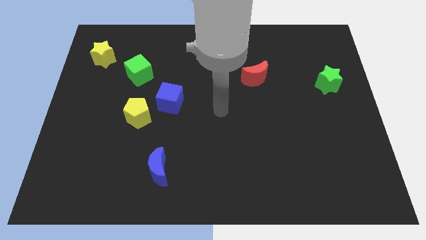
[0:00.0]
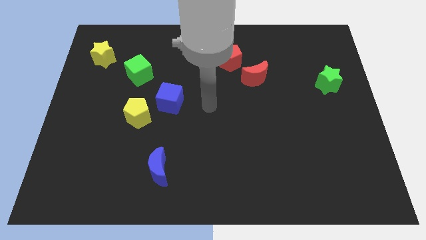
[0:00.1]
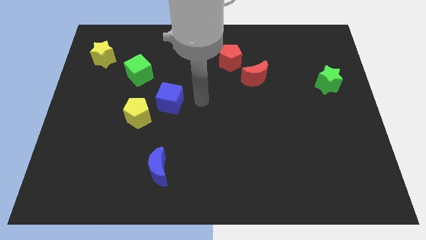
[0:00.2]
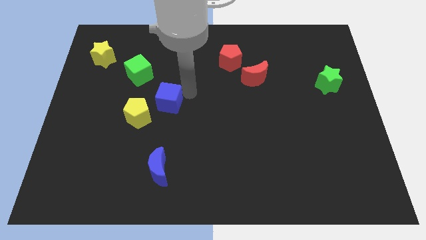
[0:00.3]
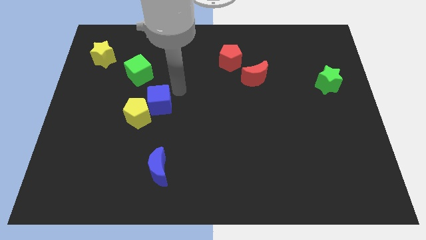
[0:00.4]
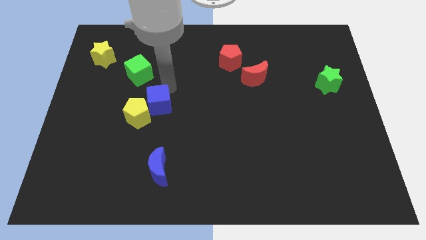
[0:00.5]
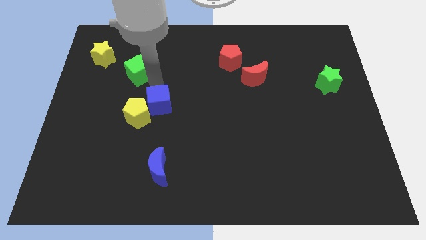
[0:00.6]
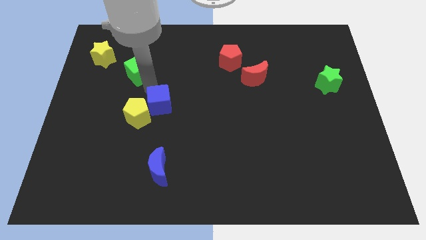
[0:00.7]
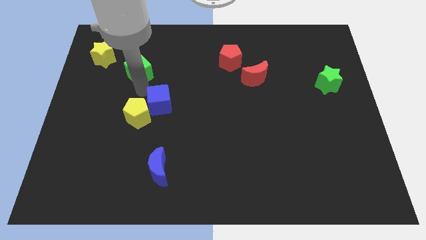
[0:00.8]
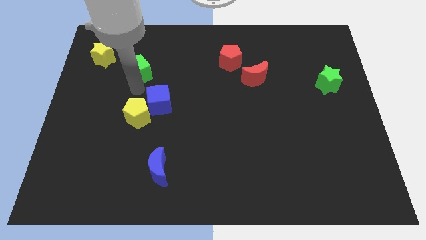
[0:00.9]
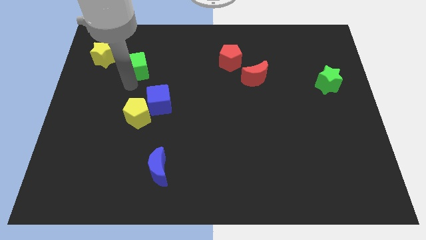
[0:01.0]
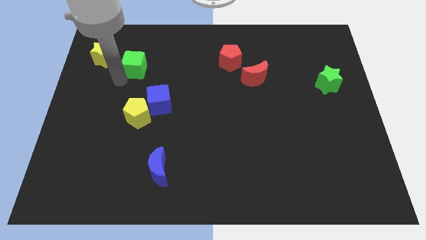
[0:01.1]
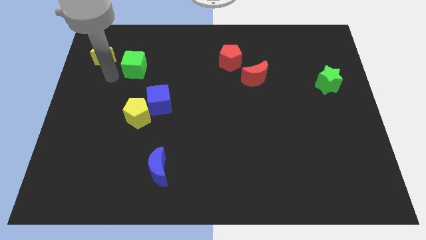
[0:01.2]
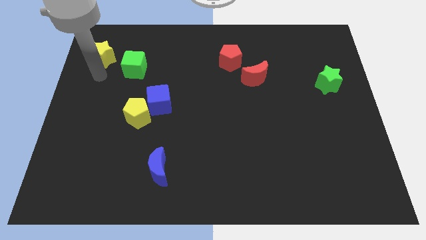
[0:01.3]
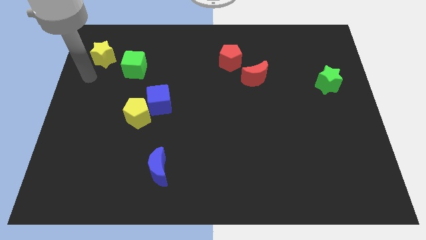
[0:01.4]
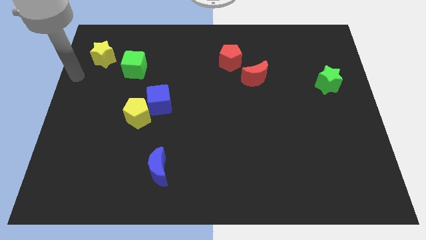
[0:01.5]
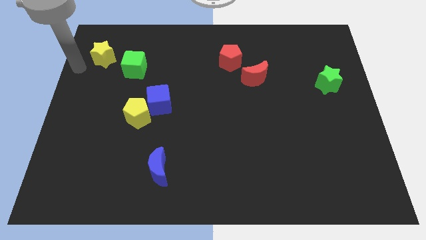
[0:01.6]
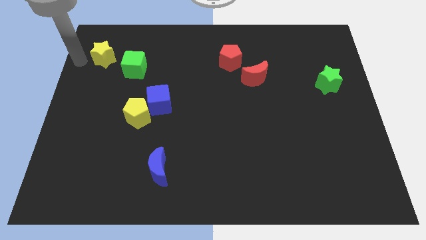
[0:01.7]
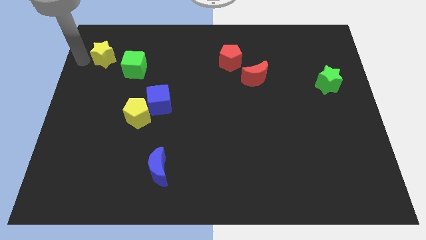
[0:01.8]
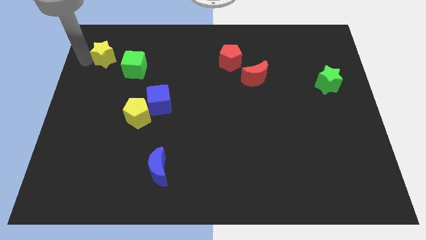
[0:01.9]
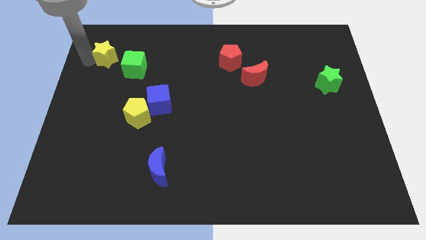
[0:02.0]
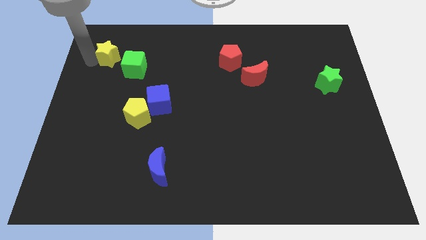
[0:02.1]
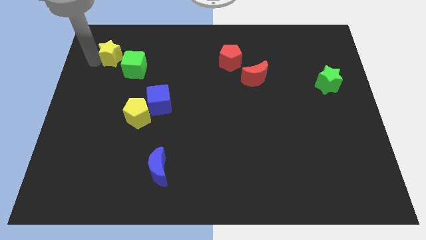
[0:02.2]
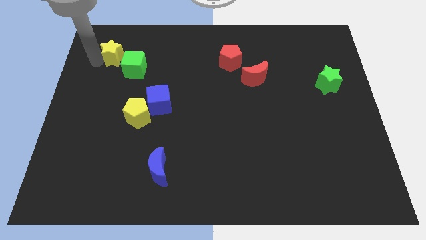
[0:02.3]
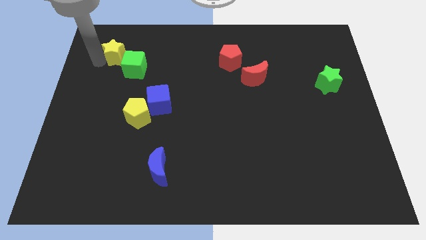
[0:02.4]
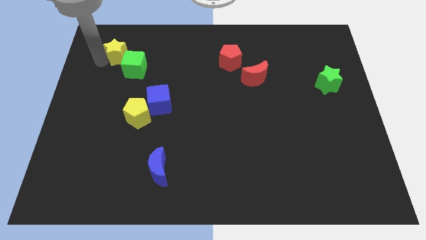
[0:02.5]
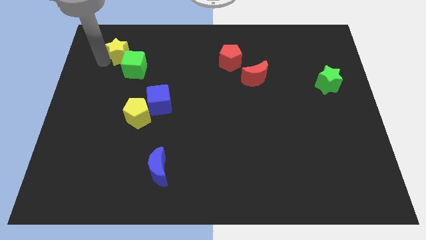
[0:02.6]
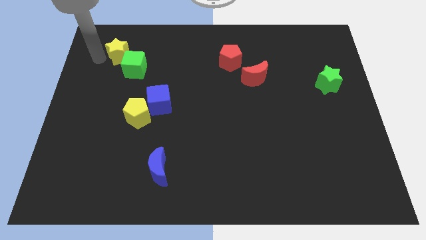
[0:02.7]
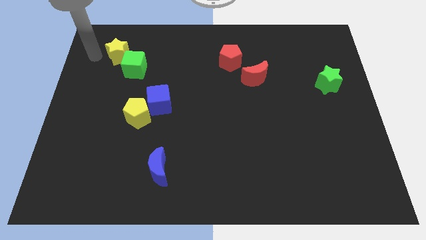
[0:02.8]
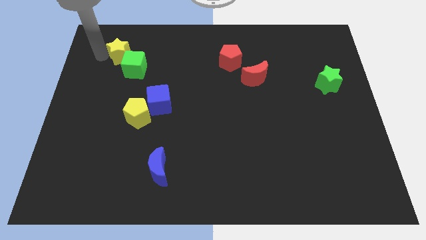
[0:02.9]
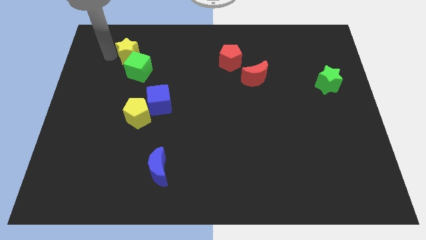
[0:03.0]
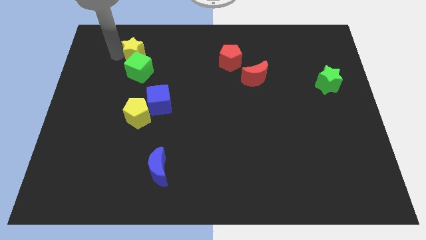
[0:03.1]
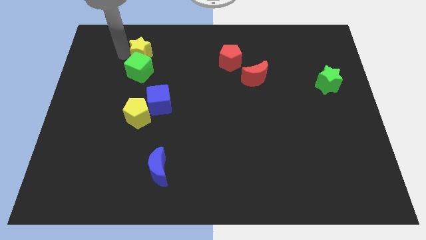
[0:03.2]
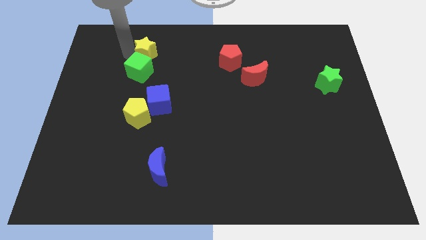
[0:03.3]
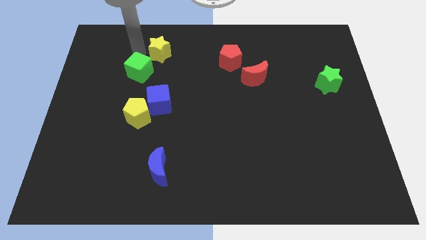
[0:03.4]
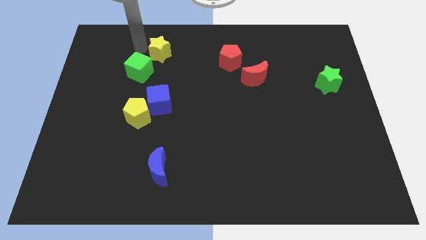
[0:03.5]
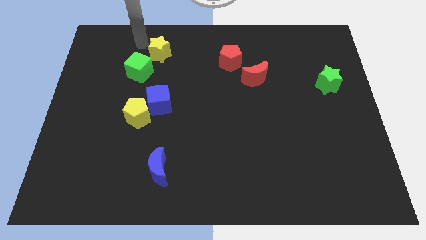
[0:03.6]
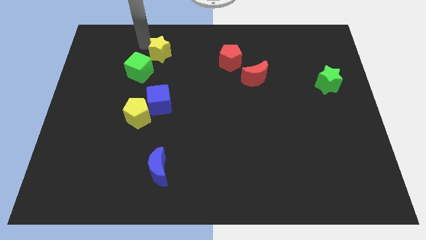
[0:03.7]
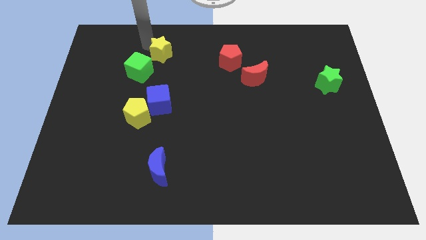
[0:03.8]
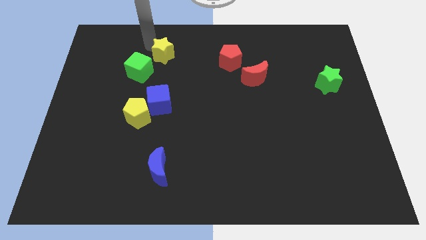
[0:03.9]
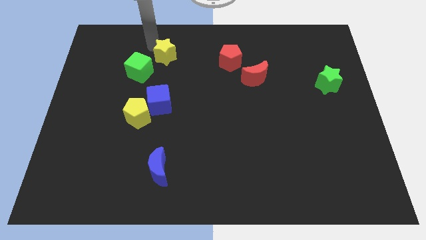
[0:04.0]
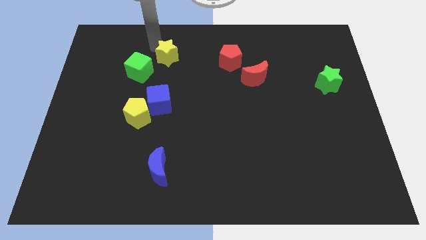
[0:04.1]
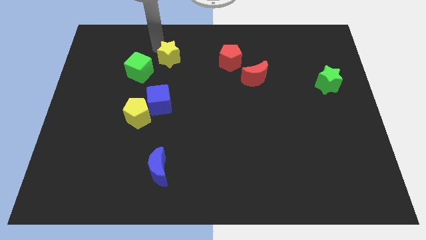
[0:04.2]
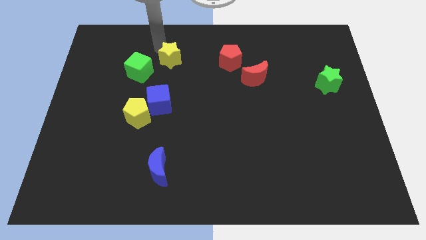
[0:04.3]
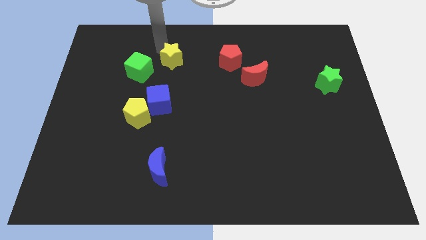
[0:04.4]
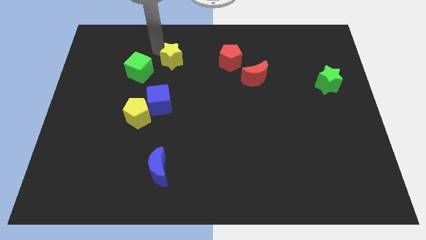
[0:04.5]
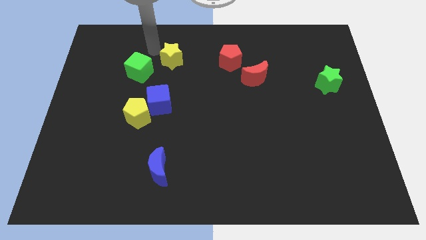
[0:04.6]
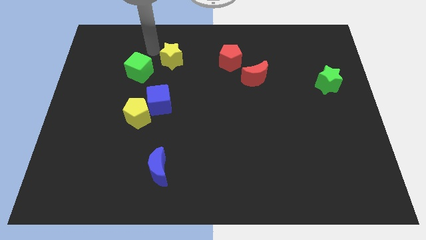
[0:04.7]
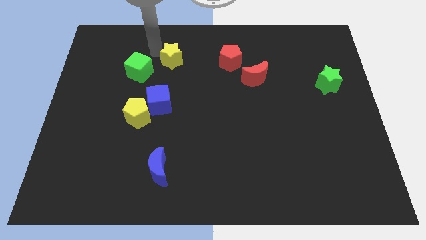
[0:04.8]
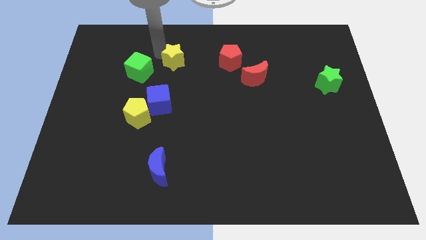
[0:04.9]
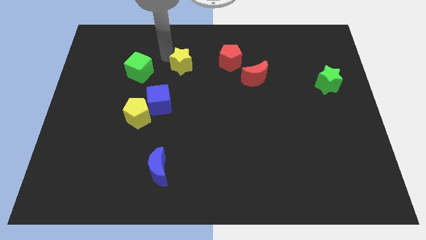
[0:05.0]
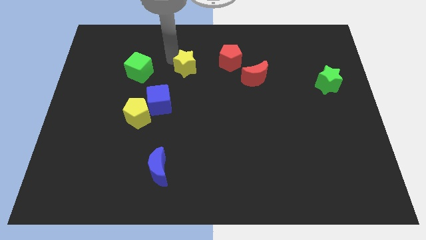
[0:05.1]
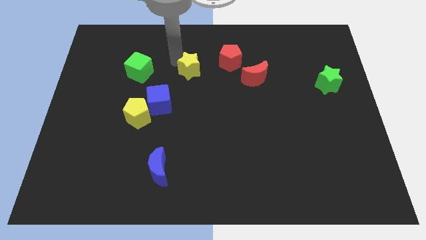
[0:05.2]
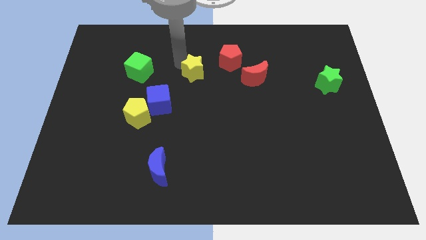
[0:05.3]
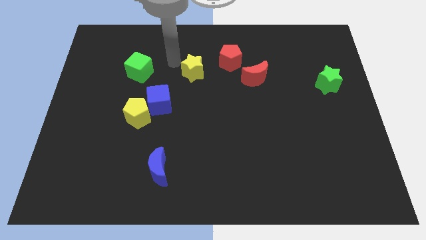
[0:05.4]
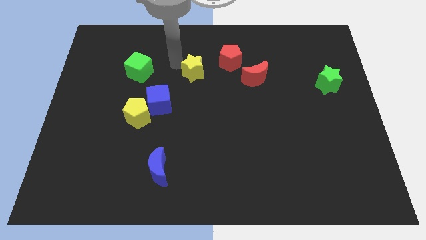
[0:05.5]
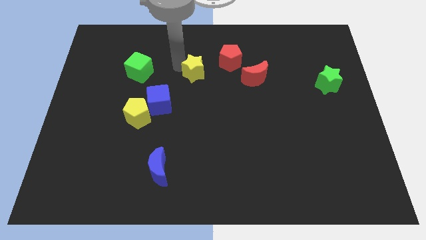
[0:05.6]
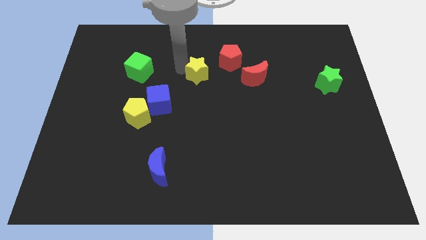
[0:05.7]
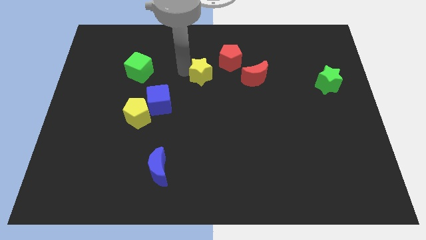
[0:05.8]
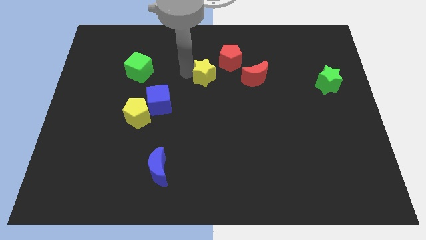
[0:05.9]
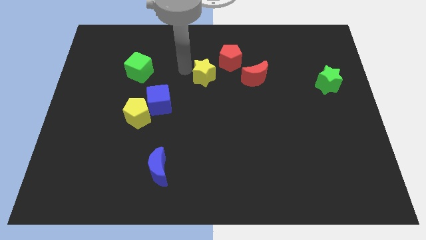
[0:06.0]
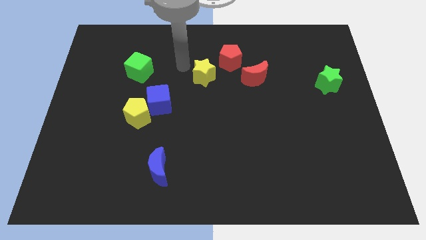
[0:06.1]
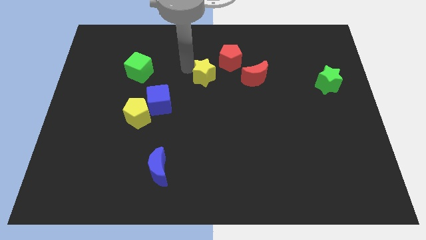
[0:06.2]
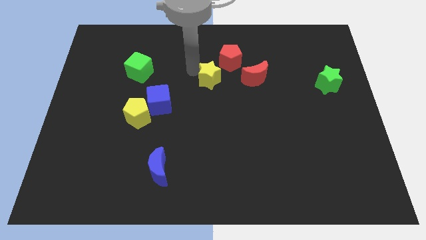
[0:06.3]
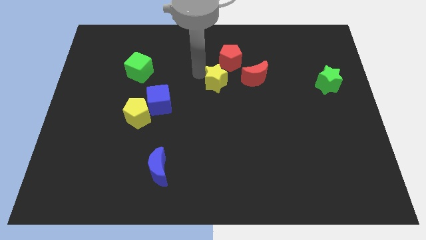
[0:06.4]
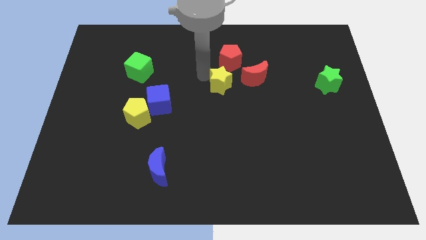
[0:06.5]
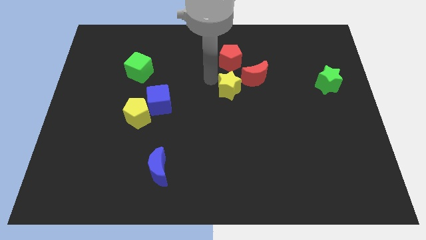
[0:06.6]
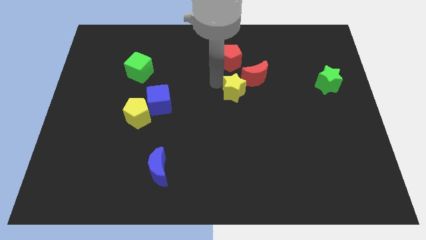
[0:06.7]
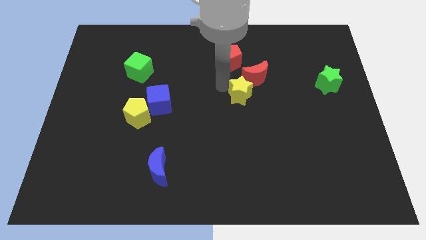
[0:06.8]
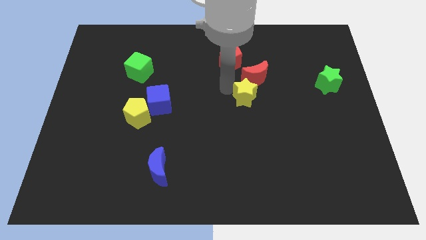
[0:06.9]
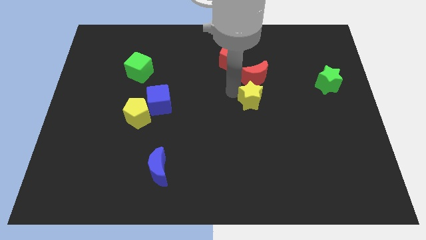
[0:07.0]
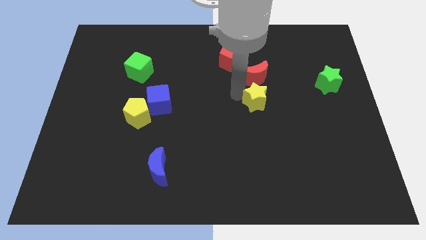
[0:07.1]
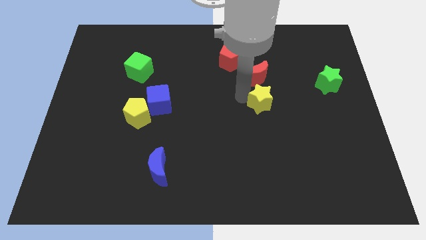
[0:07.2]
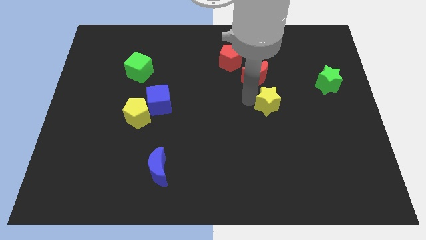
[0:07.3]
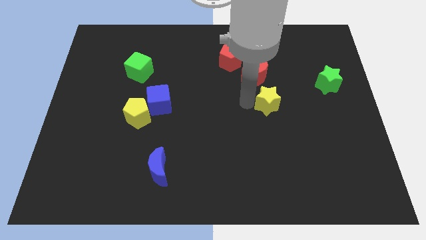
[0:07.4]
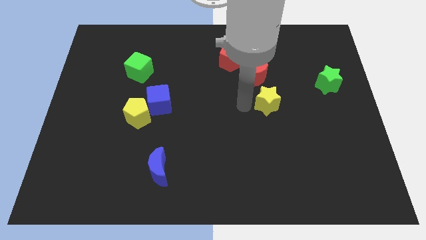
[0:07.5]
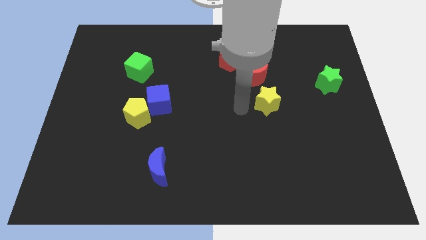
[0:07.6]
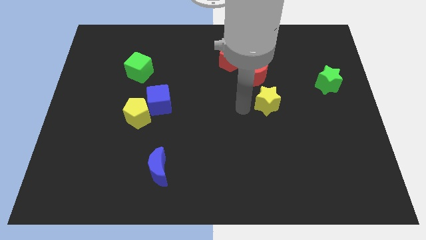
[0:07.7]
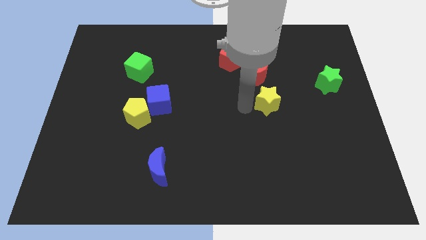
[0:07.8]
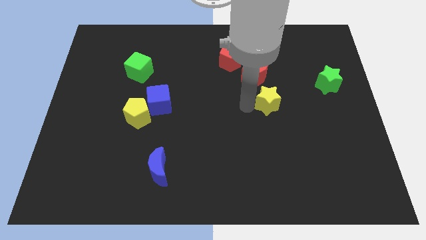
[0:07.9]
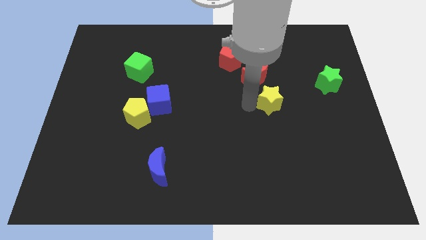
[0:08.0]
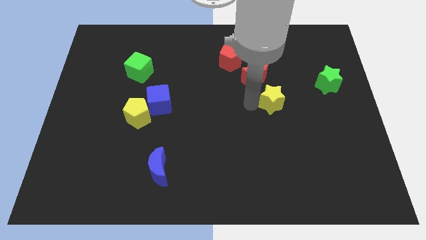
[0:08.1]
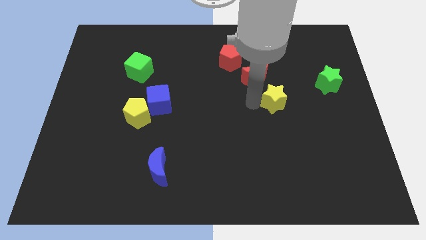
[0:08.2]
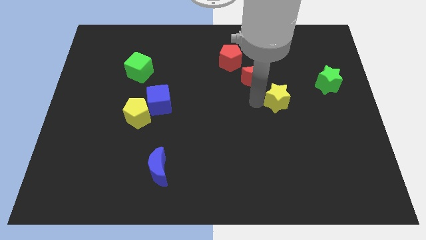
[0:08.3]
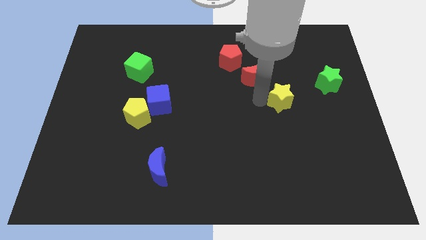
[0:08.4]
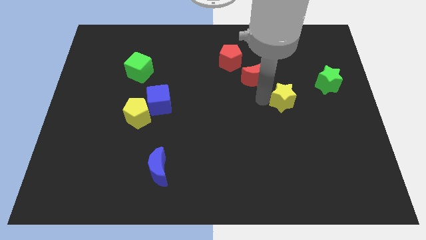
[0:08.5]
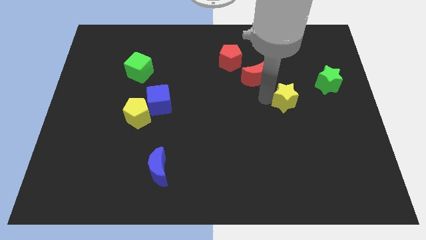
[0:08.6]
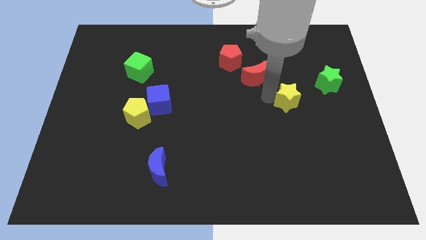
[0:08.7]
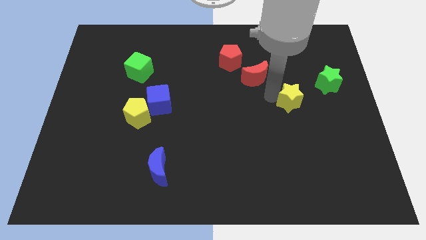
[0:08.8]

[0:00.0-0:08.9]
slide the yellow star to the bottom left of the green star
